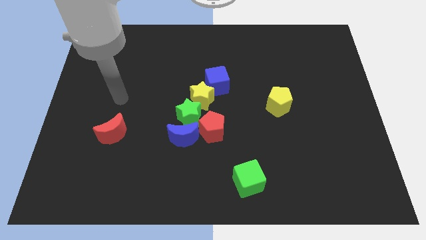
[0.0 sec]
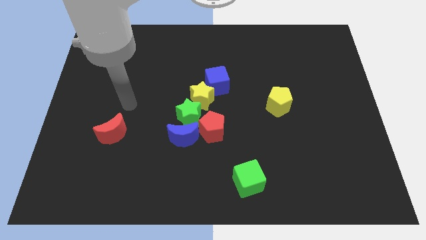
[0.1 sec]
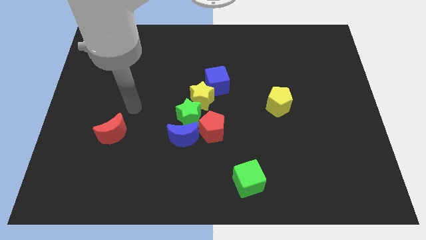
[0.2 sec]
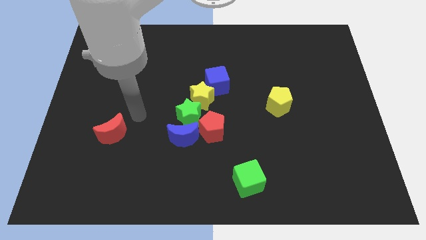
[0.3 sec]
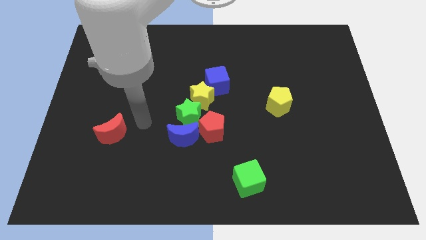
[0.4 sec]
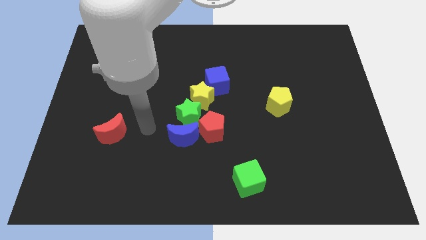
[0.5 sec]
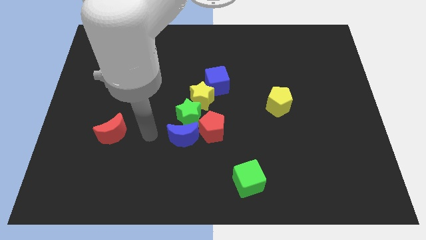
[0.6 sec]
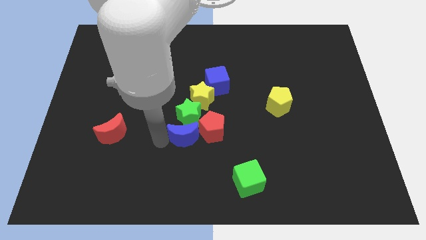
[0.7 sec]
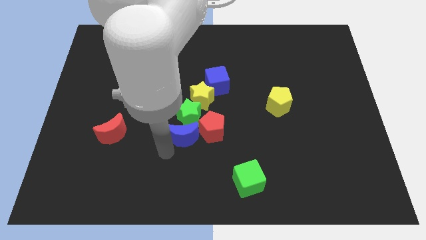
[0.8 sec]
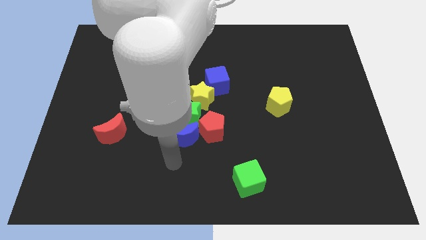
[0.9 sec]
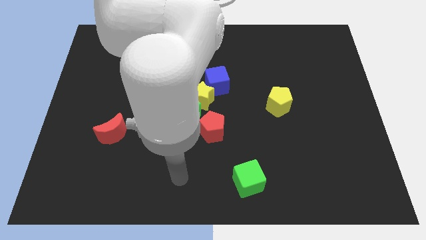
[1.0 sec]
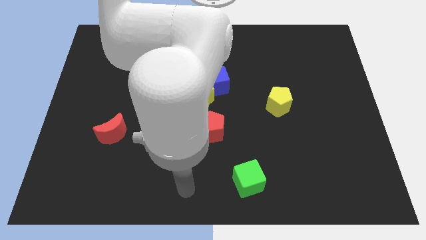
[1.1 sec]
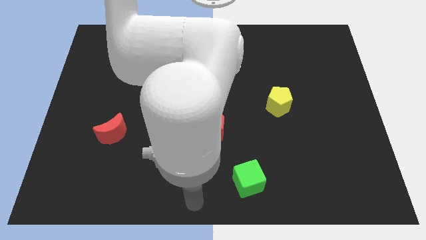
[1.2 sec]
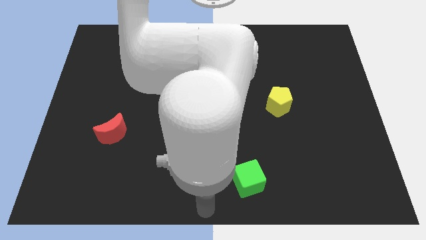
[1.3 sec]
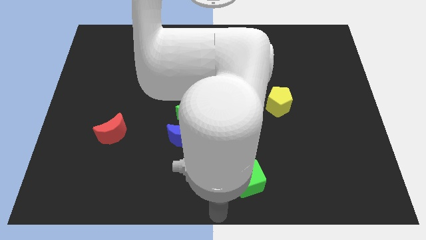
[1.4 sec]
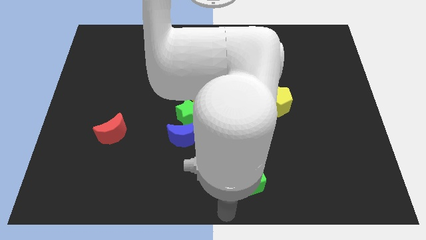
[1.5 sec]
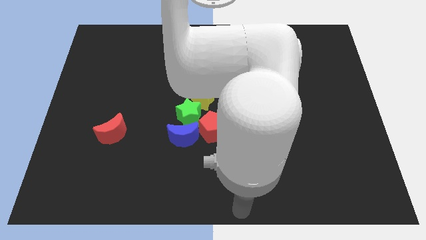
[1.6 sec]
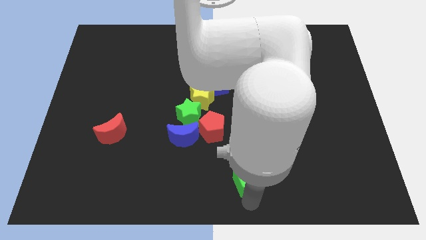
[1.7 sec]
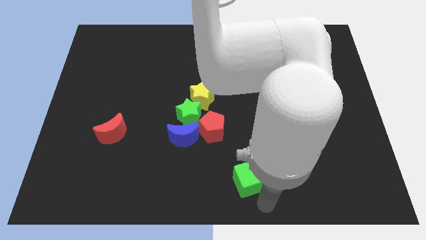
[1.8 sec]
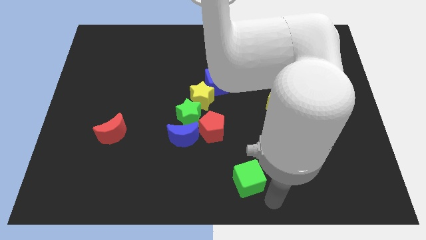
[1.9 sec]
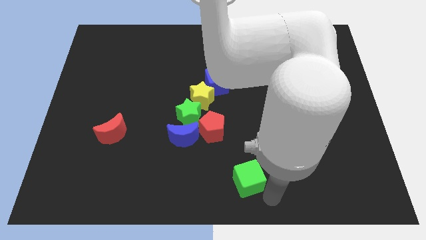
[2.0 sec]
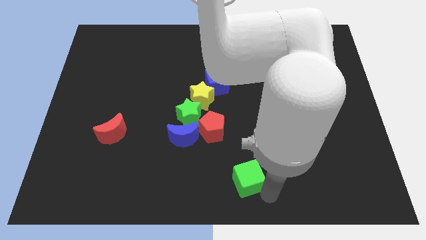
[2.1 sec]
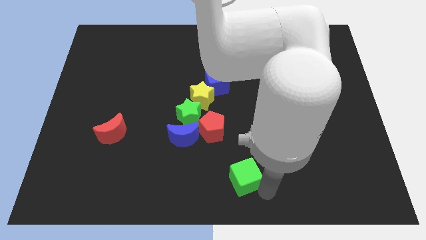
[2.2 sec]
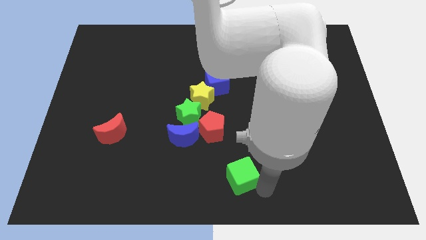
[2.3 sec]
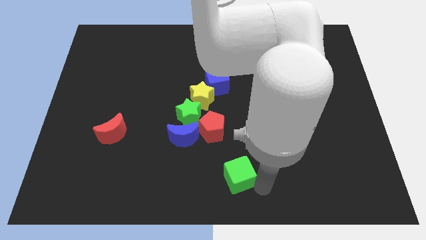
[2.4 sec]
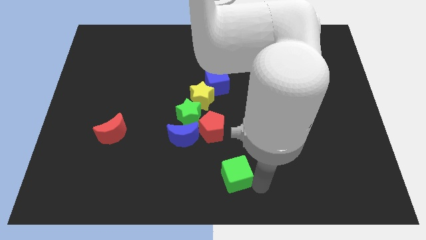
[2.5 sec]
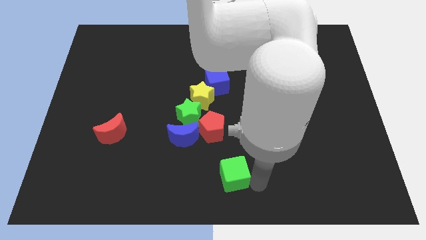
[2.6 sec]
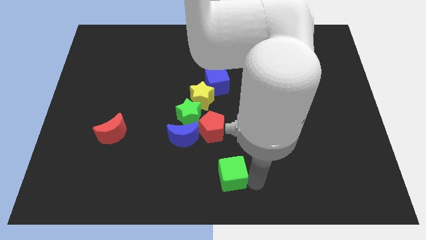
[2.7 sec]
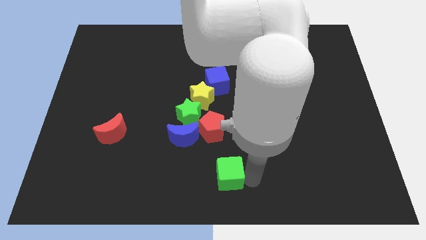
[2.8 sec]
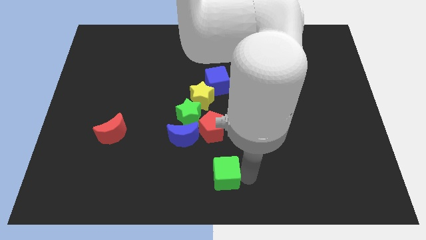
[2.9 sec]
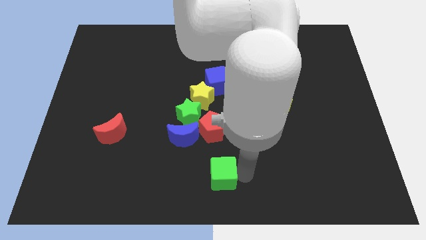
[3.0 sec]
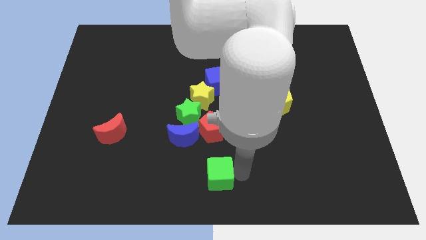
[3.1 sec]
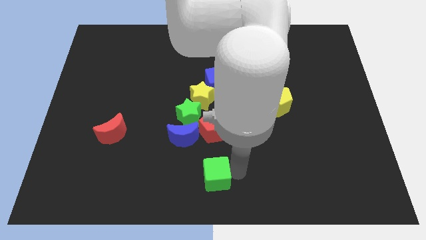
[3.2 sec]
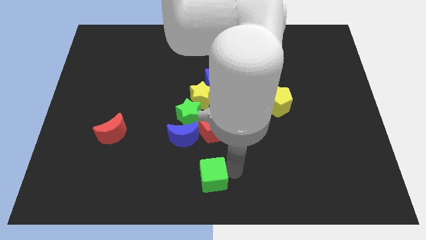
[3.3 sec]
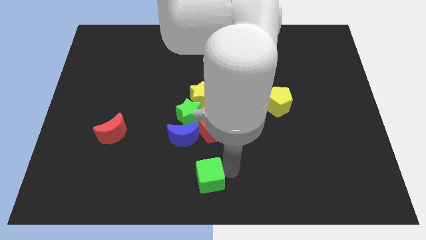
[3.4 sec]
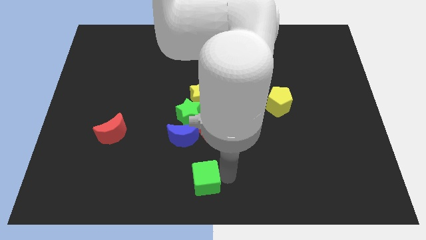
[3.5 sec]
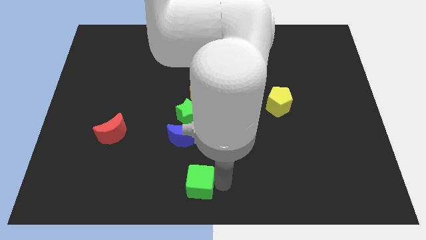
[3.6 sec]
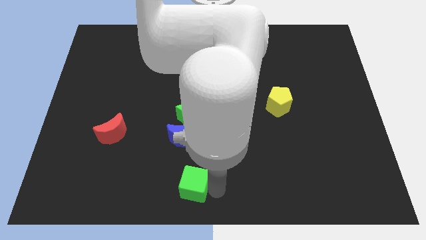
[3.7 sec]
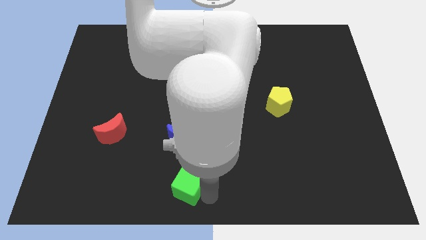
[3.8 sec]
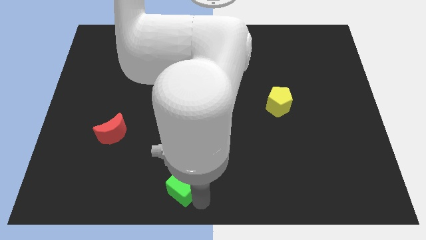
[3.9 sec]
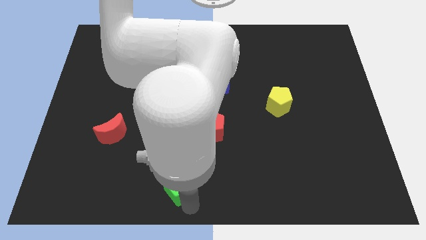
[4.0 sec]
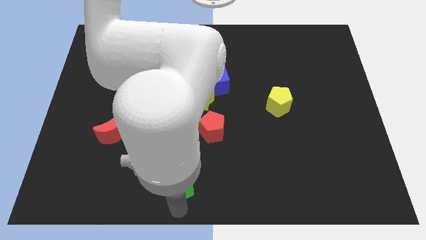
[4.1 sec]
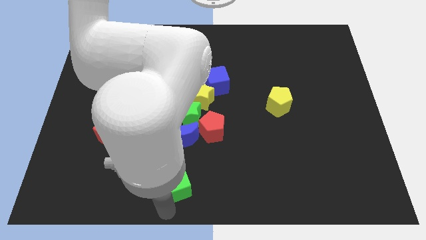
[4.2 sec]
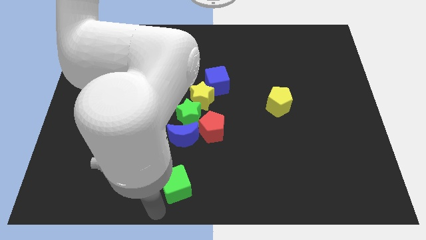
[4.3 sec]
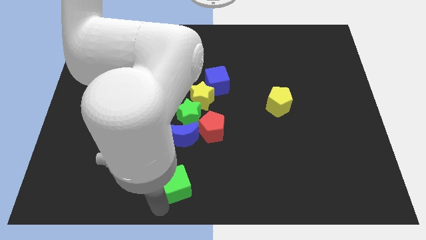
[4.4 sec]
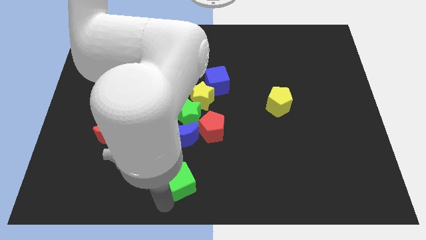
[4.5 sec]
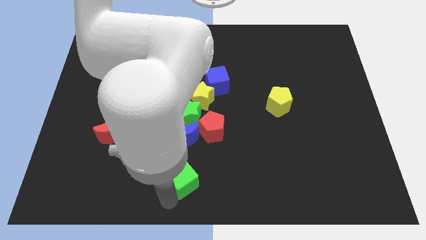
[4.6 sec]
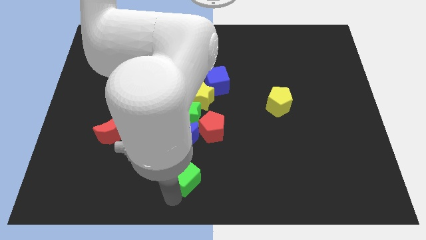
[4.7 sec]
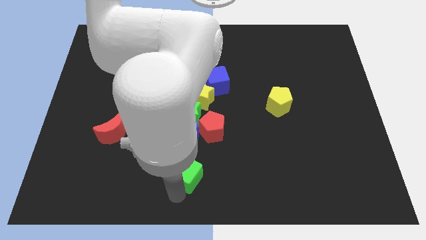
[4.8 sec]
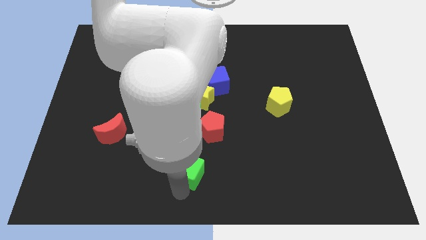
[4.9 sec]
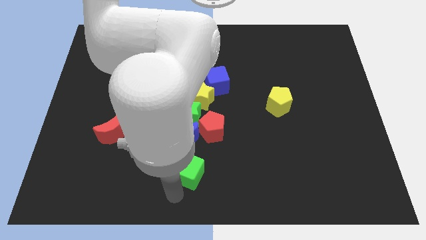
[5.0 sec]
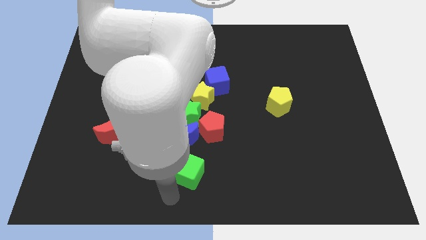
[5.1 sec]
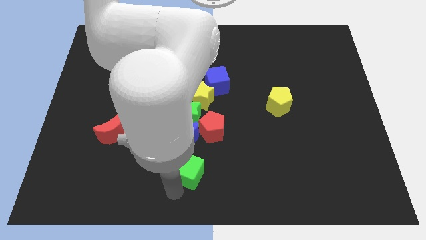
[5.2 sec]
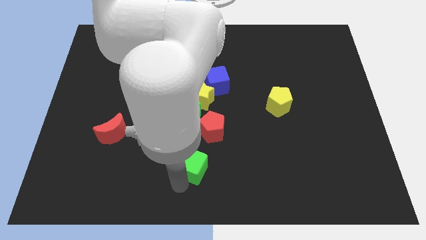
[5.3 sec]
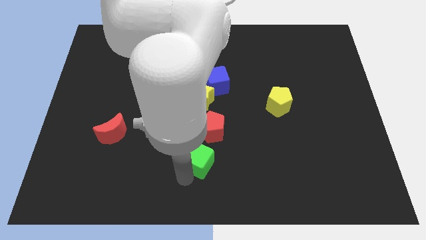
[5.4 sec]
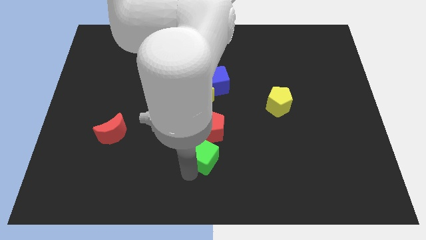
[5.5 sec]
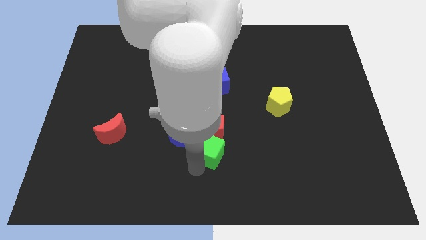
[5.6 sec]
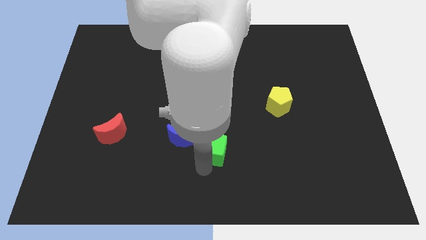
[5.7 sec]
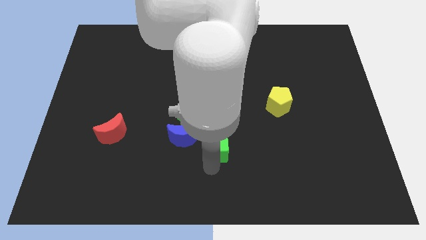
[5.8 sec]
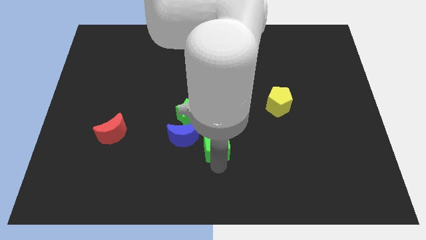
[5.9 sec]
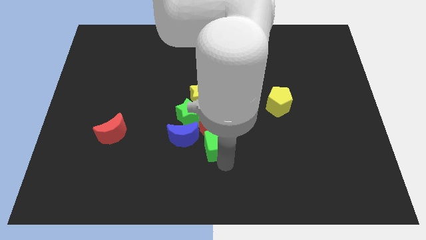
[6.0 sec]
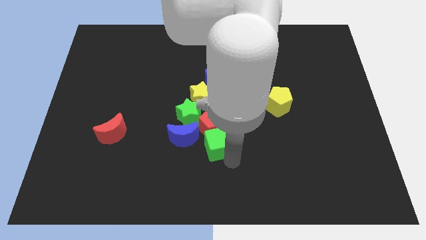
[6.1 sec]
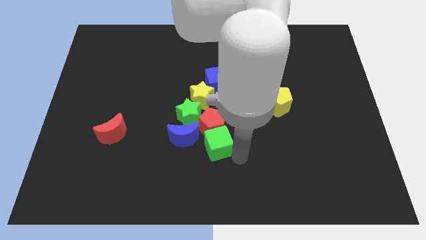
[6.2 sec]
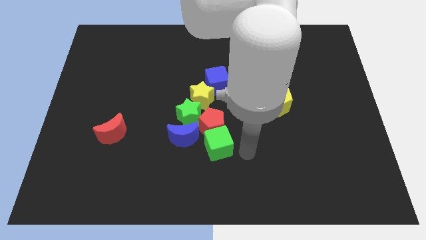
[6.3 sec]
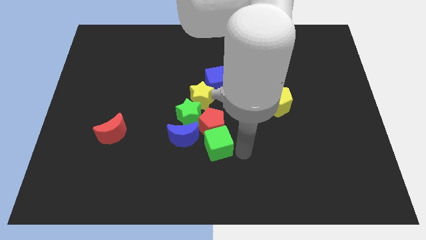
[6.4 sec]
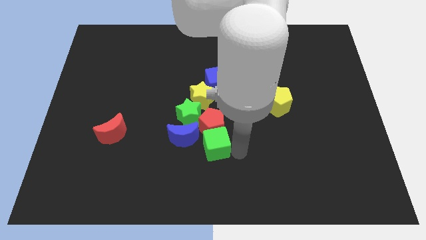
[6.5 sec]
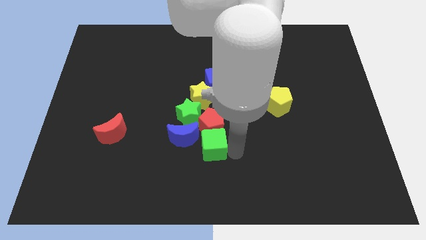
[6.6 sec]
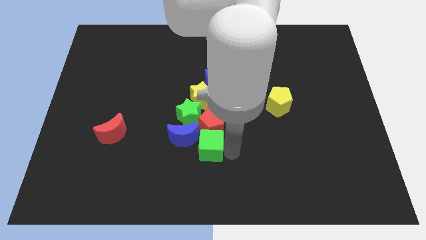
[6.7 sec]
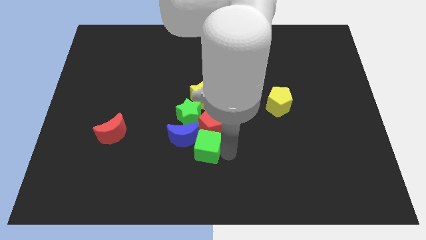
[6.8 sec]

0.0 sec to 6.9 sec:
push the green cube close to the blue moon

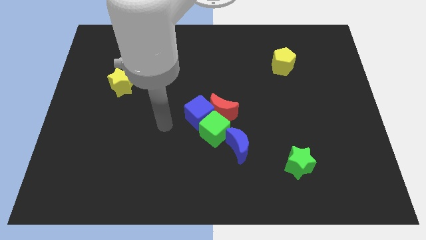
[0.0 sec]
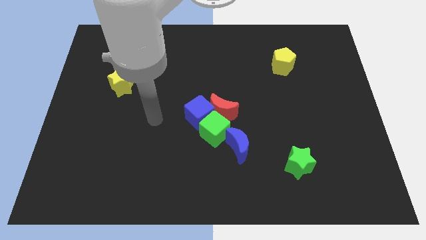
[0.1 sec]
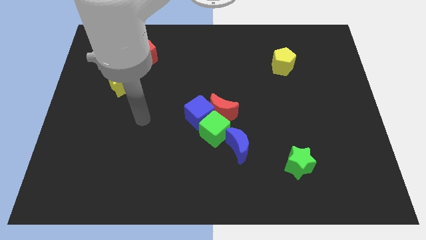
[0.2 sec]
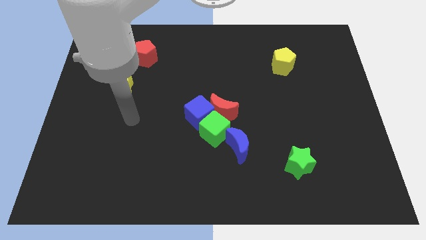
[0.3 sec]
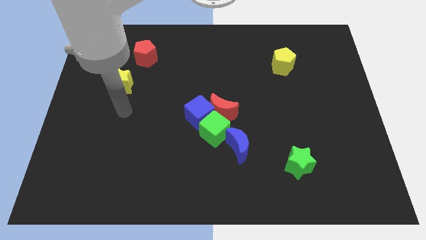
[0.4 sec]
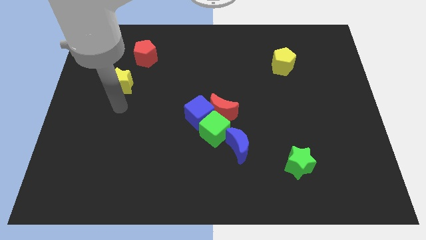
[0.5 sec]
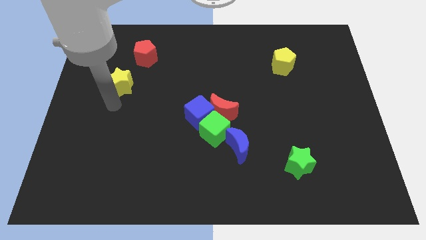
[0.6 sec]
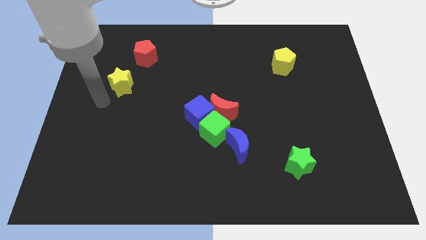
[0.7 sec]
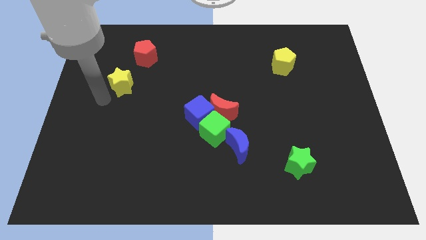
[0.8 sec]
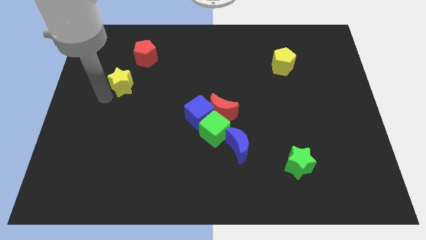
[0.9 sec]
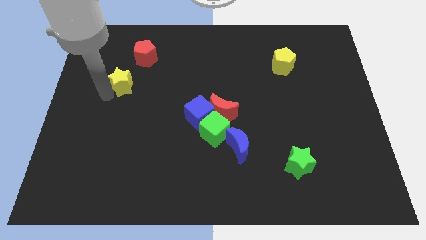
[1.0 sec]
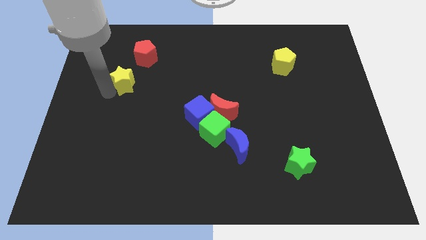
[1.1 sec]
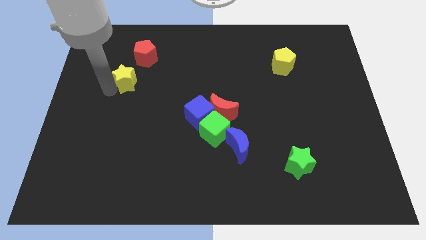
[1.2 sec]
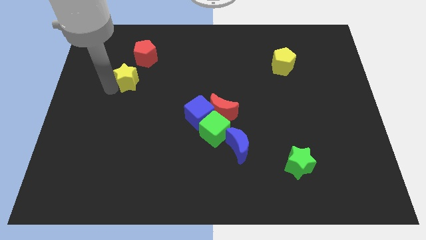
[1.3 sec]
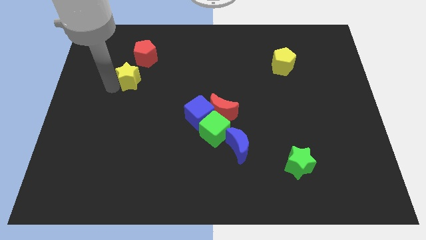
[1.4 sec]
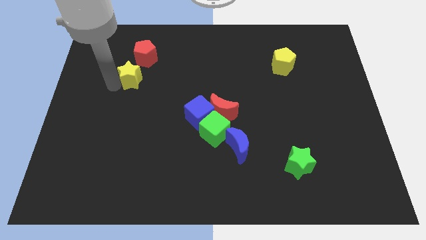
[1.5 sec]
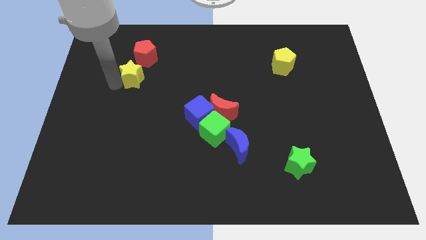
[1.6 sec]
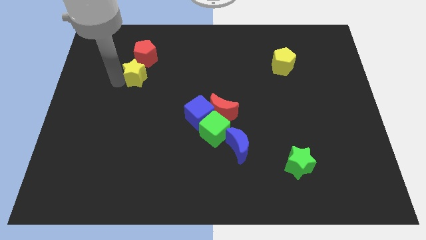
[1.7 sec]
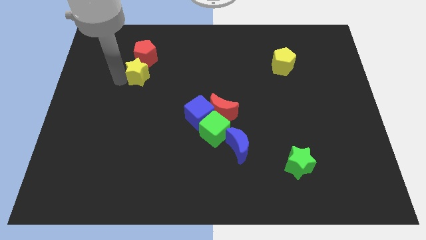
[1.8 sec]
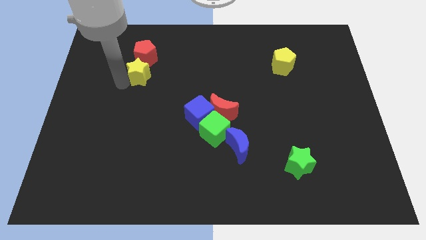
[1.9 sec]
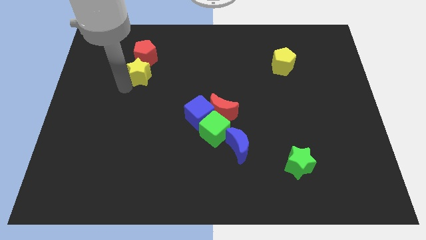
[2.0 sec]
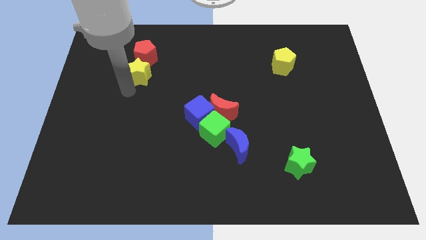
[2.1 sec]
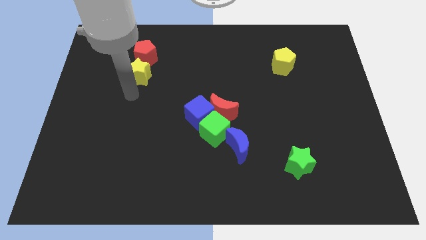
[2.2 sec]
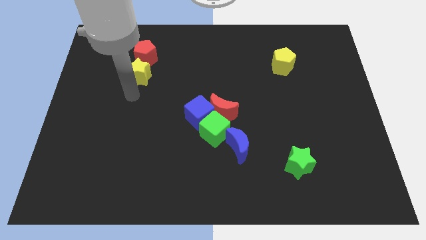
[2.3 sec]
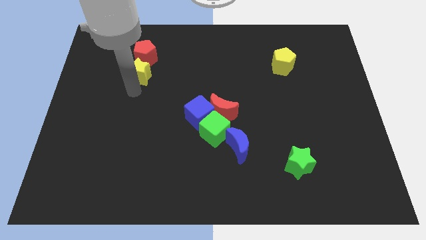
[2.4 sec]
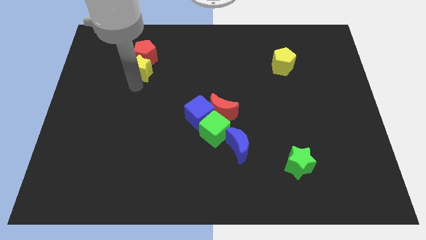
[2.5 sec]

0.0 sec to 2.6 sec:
push the yellow star to the red pentagon
